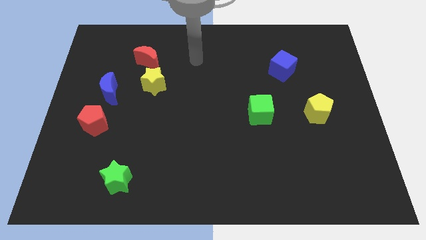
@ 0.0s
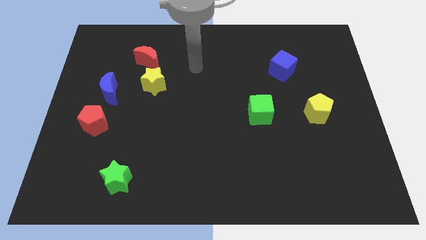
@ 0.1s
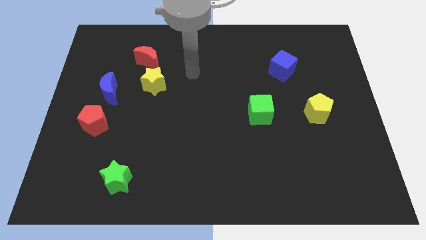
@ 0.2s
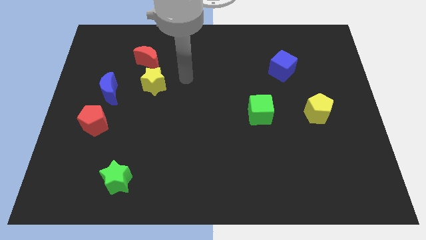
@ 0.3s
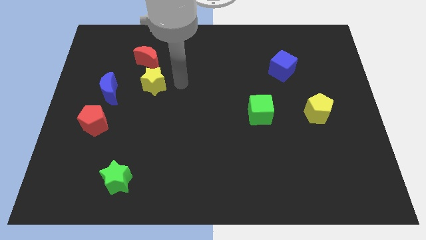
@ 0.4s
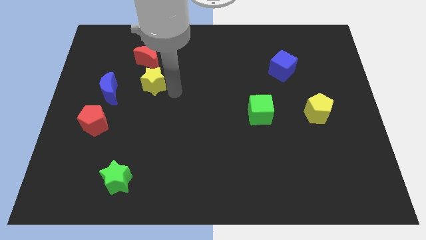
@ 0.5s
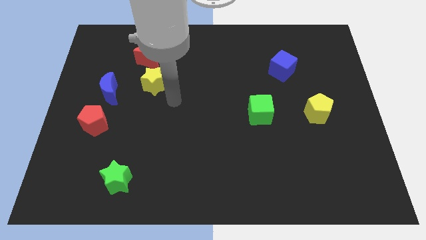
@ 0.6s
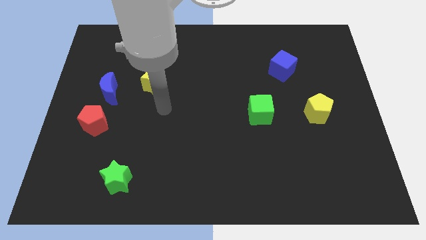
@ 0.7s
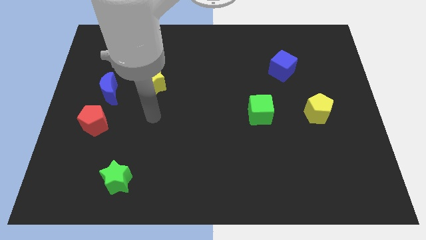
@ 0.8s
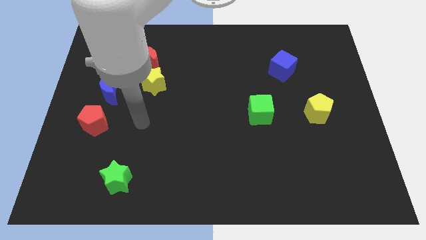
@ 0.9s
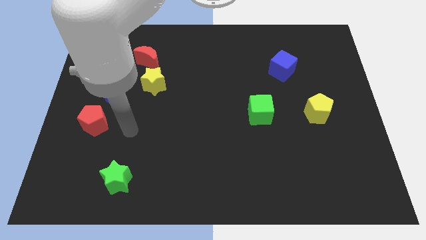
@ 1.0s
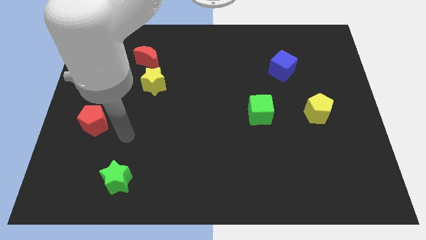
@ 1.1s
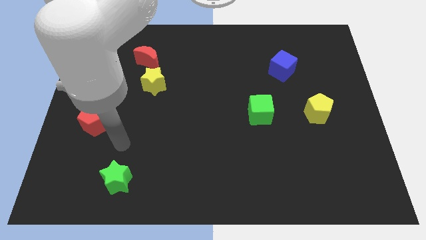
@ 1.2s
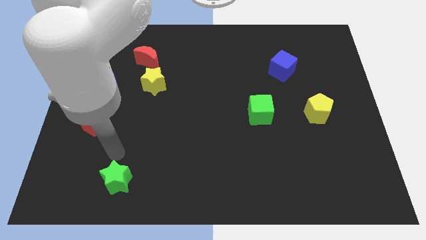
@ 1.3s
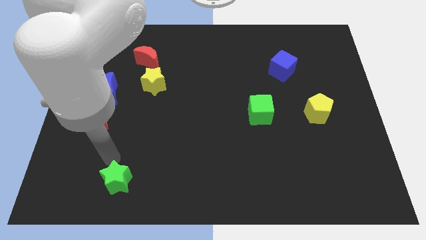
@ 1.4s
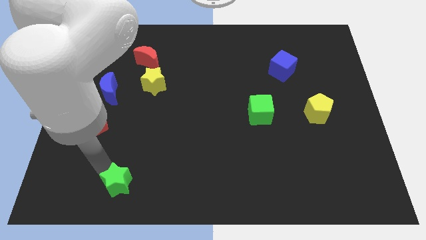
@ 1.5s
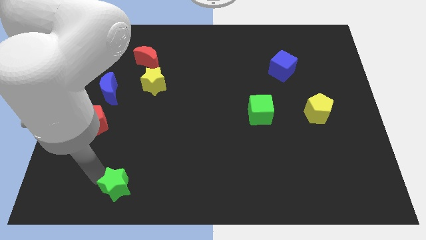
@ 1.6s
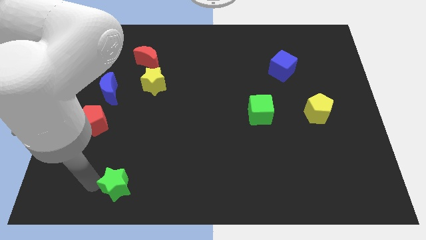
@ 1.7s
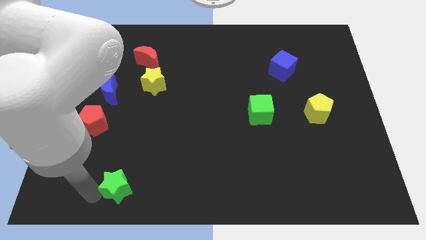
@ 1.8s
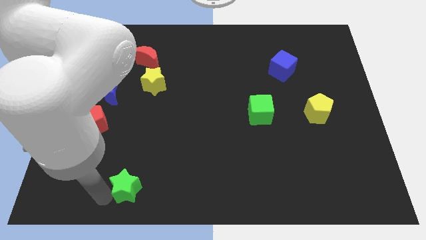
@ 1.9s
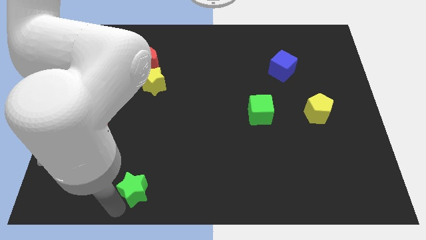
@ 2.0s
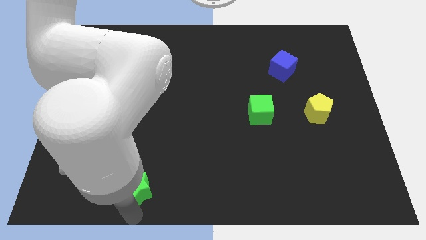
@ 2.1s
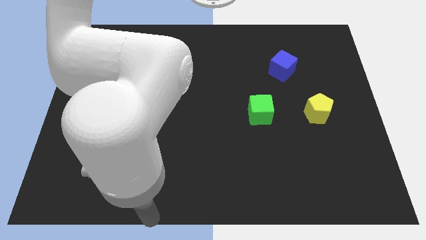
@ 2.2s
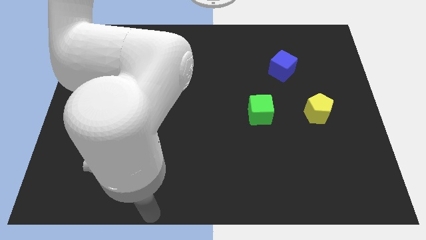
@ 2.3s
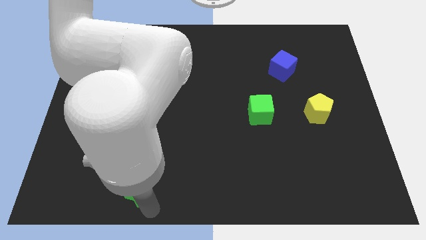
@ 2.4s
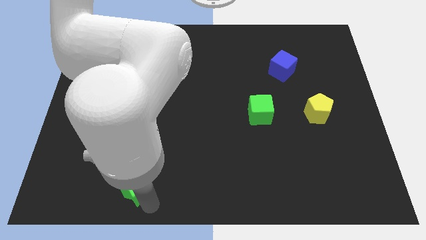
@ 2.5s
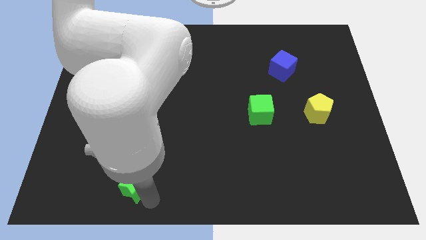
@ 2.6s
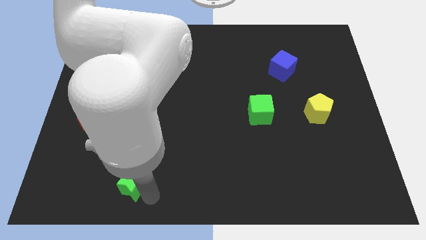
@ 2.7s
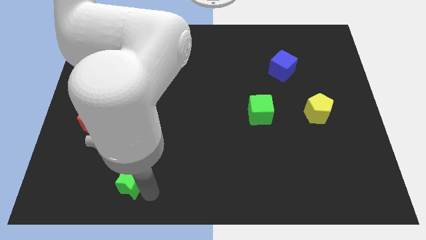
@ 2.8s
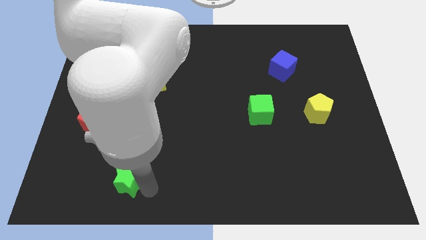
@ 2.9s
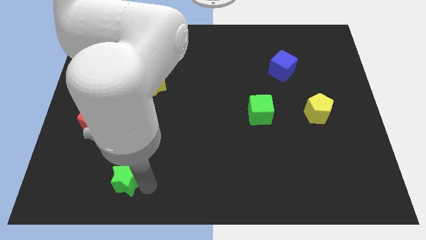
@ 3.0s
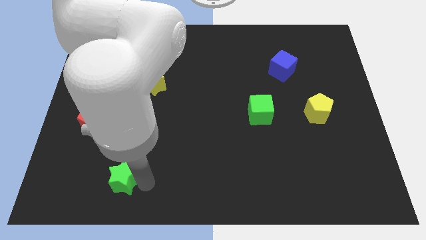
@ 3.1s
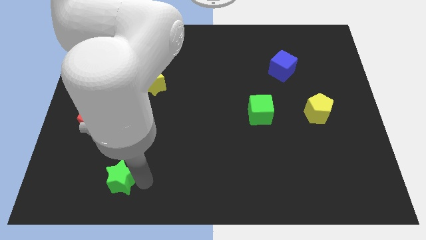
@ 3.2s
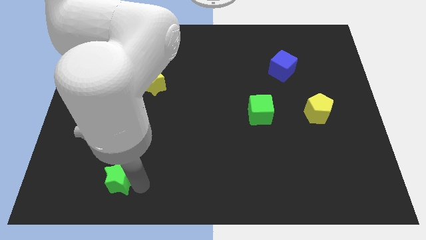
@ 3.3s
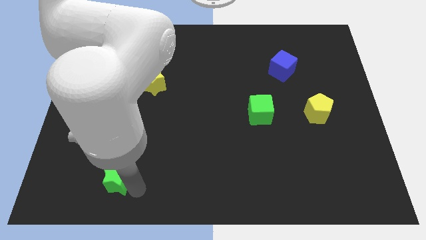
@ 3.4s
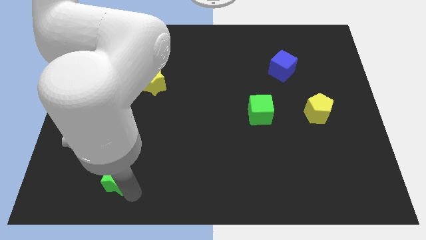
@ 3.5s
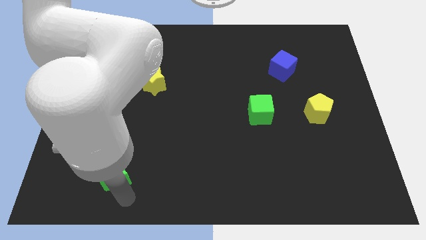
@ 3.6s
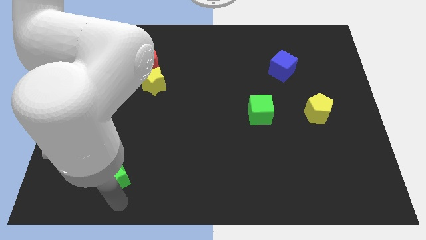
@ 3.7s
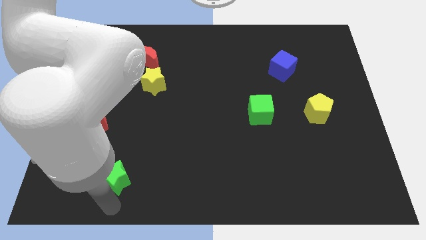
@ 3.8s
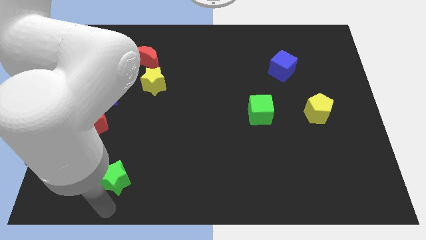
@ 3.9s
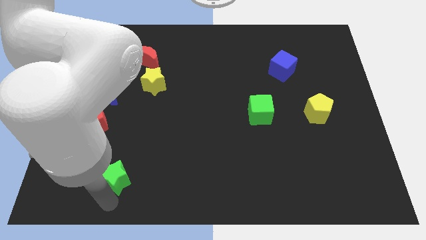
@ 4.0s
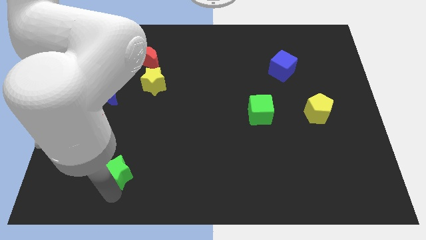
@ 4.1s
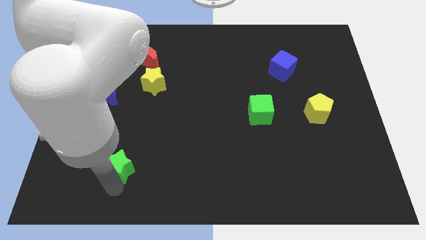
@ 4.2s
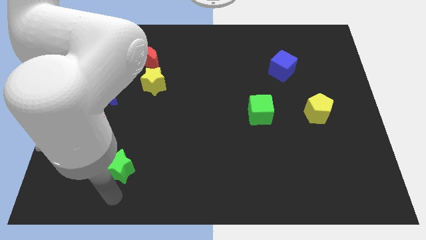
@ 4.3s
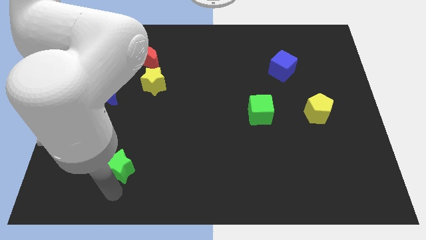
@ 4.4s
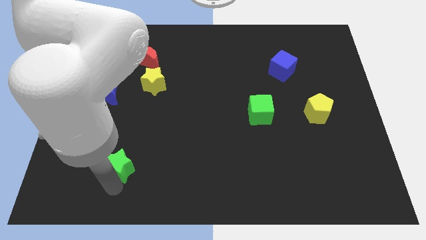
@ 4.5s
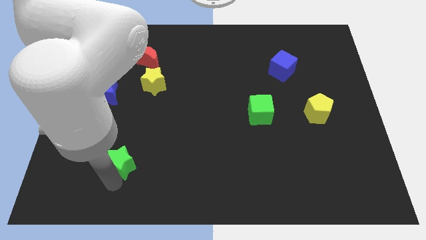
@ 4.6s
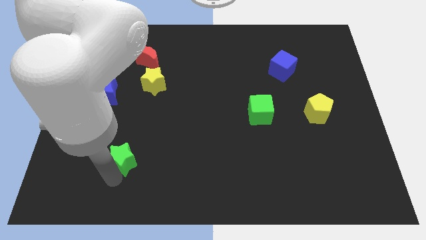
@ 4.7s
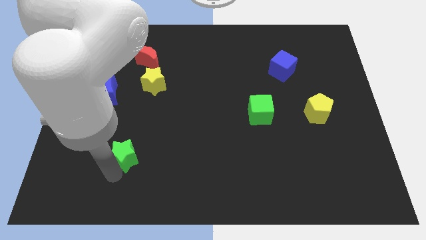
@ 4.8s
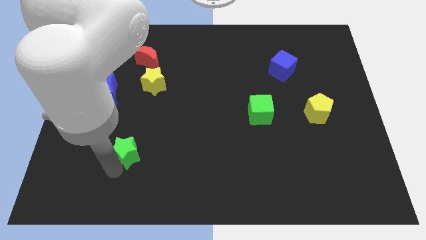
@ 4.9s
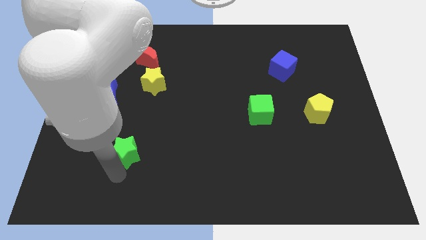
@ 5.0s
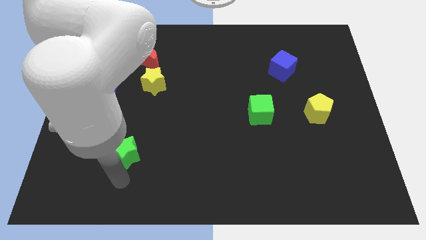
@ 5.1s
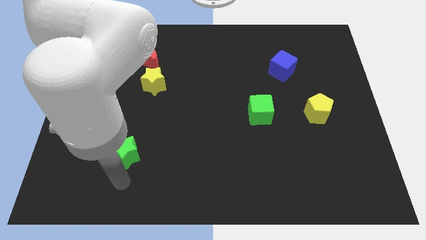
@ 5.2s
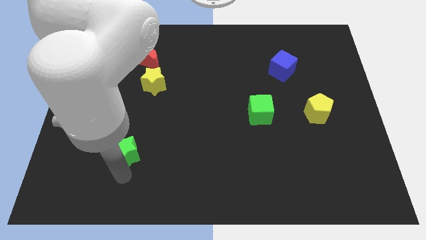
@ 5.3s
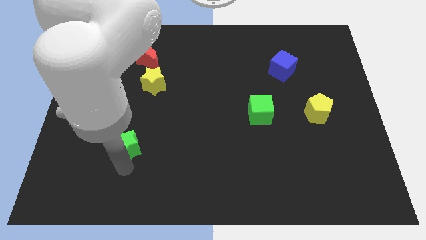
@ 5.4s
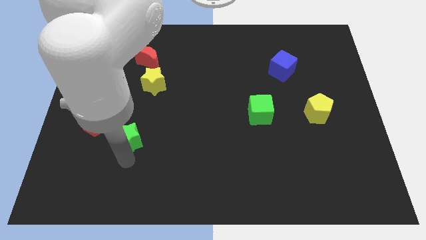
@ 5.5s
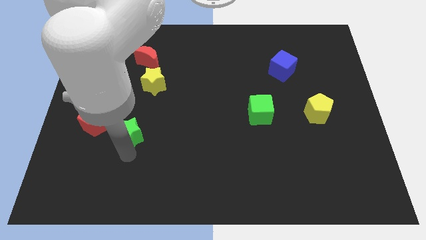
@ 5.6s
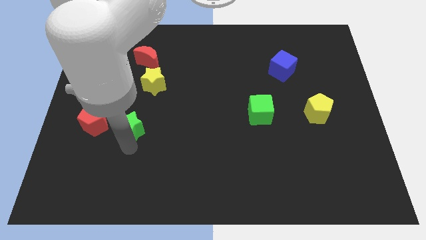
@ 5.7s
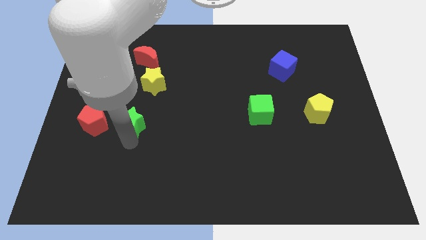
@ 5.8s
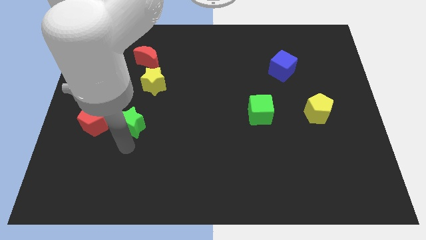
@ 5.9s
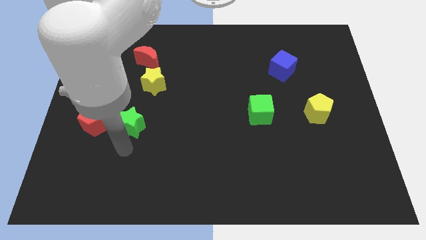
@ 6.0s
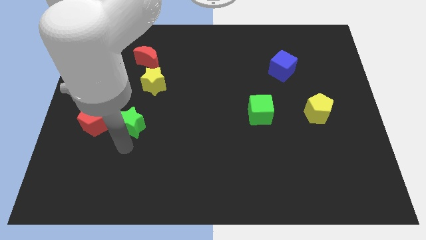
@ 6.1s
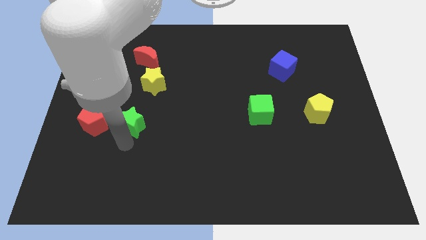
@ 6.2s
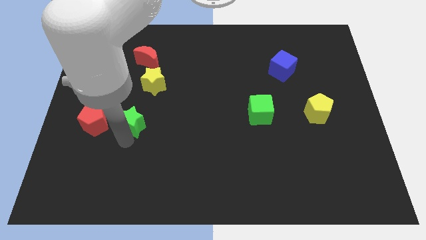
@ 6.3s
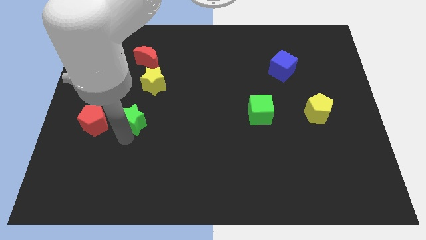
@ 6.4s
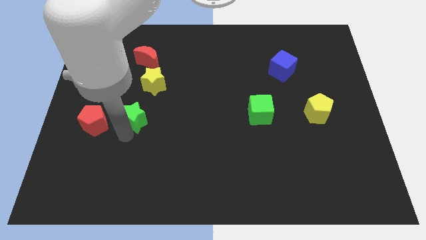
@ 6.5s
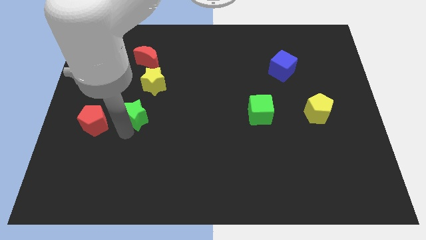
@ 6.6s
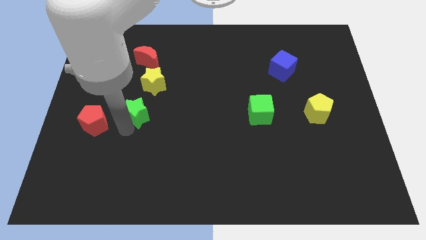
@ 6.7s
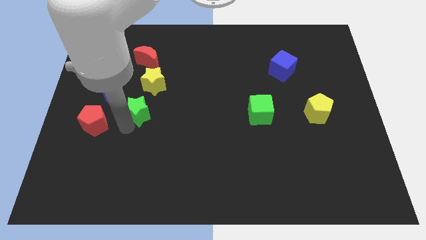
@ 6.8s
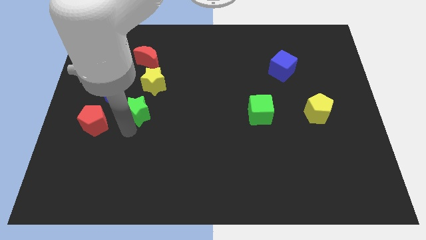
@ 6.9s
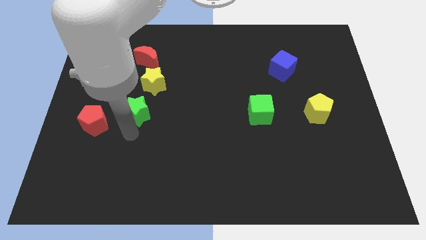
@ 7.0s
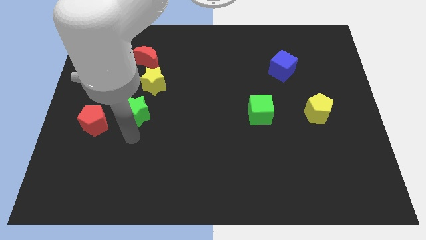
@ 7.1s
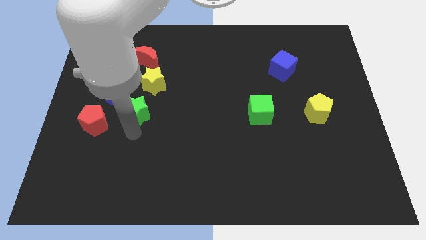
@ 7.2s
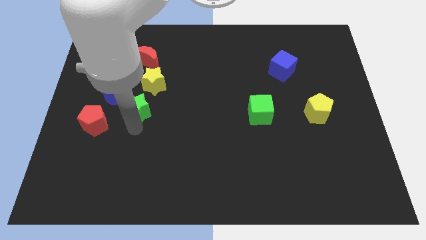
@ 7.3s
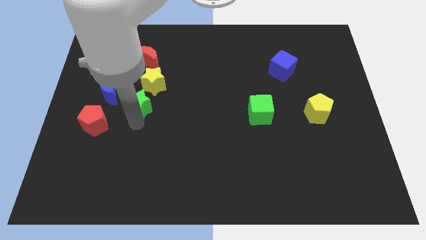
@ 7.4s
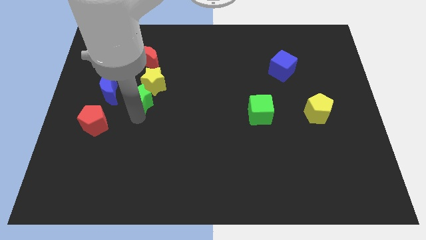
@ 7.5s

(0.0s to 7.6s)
move the green star next to the yellow star
